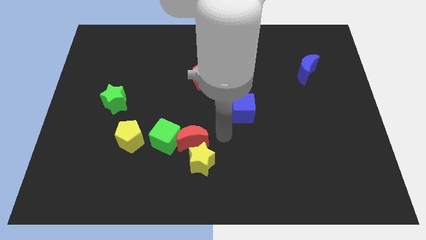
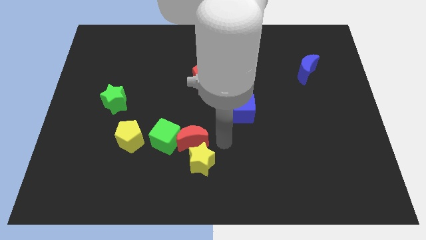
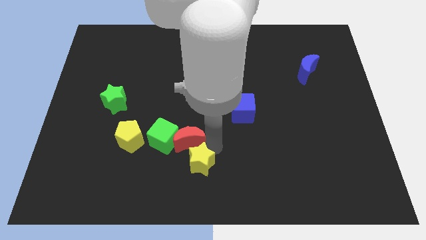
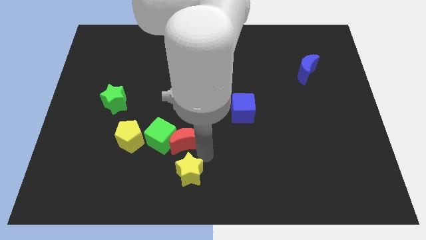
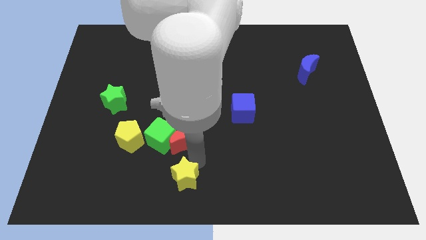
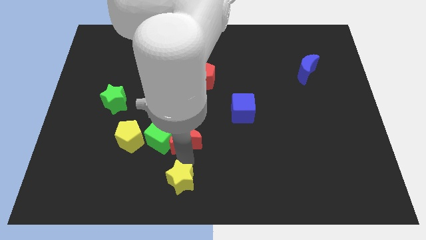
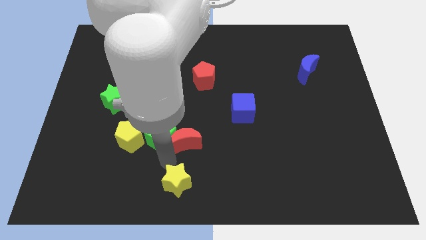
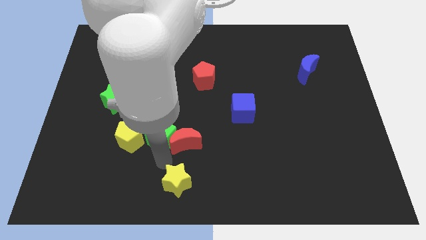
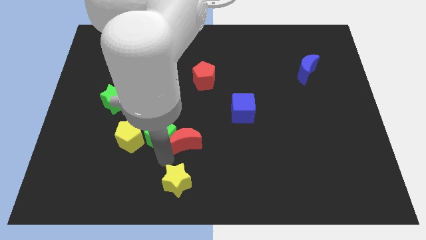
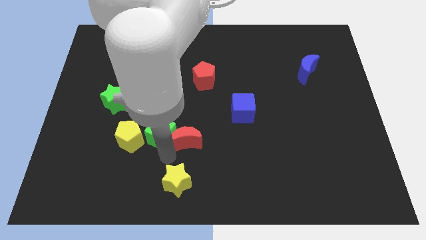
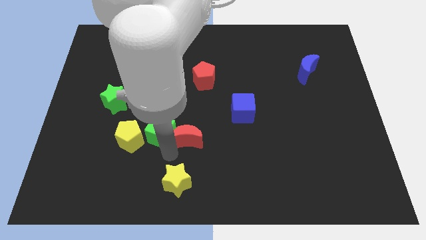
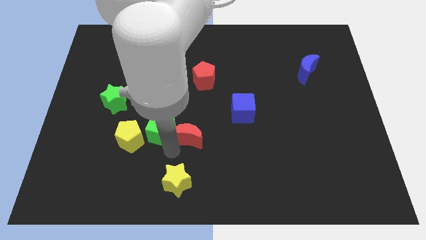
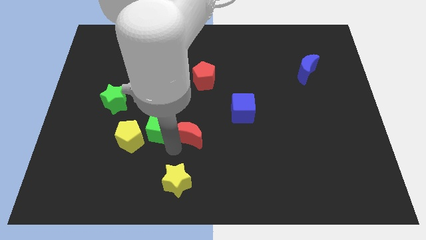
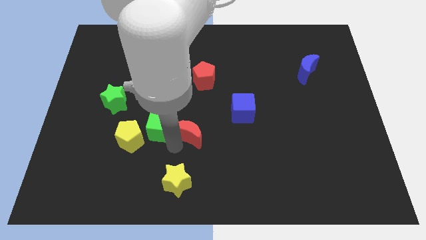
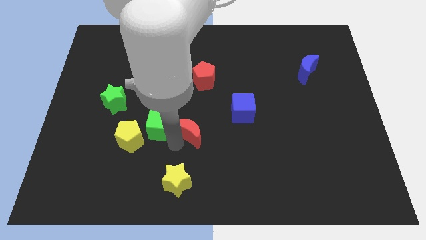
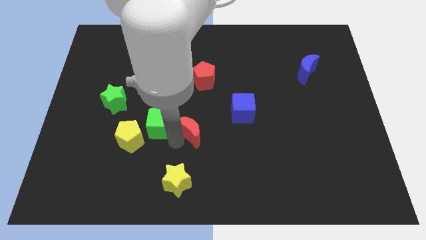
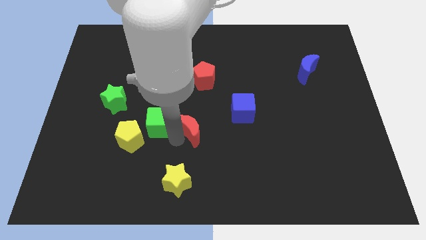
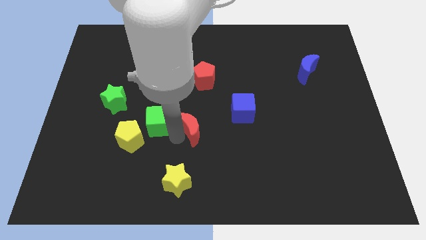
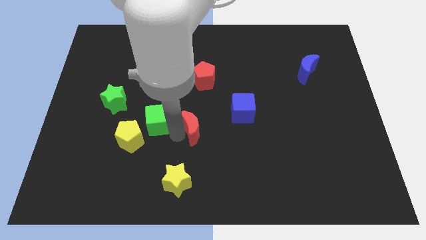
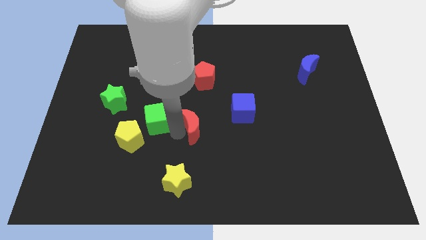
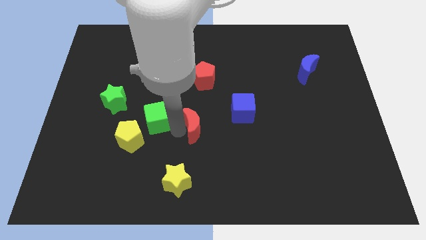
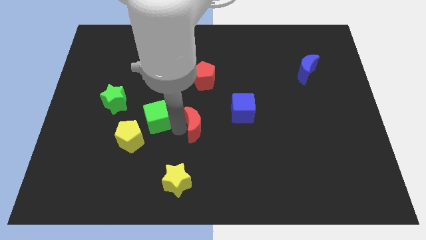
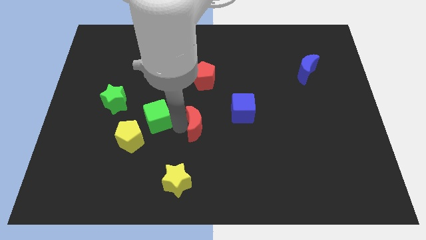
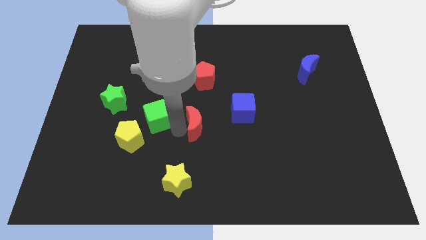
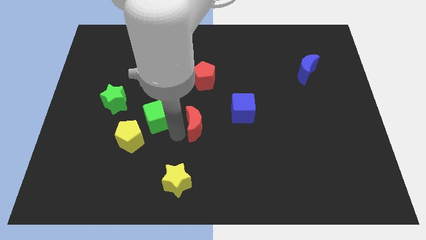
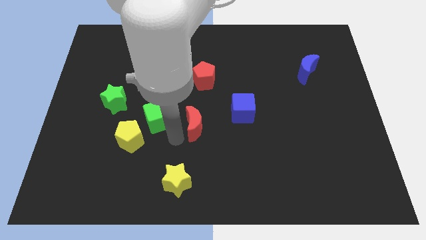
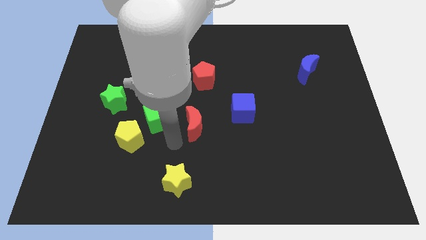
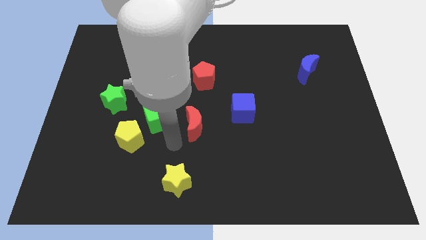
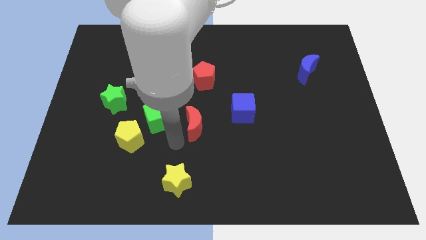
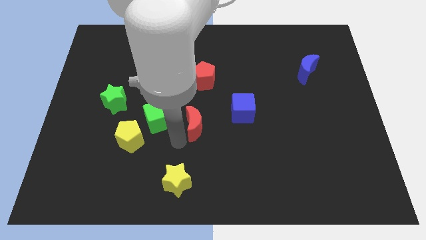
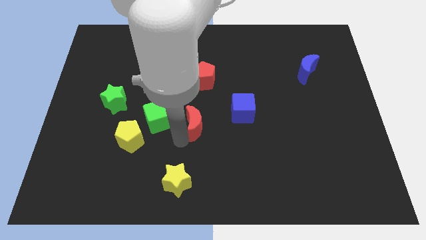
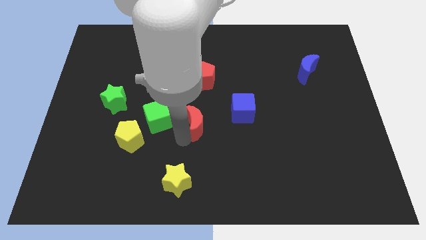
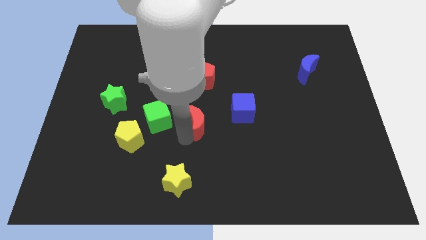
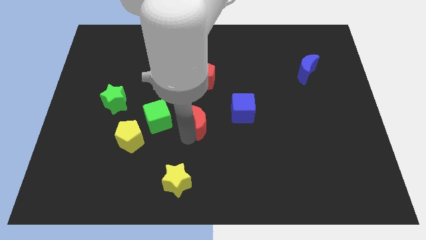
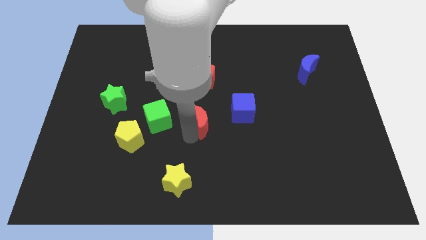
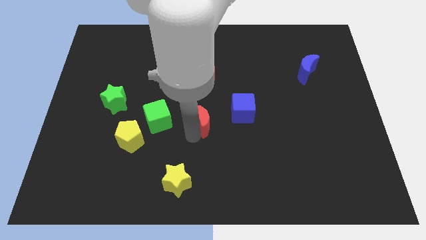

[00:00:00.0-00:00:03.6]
pull the red moon apart from the green cube and yellow star

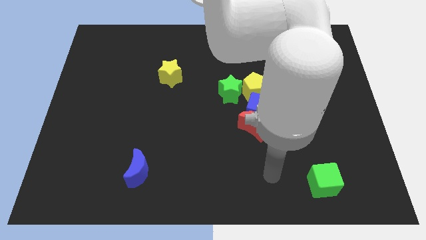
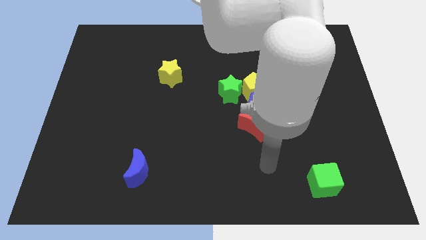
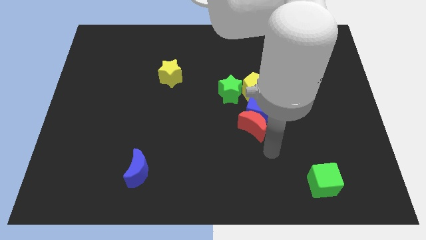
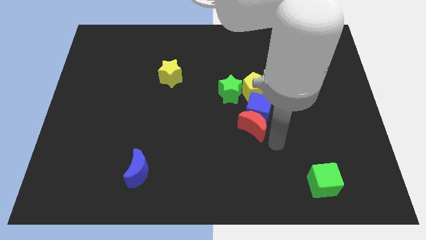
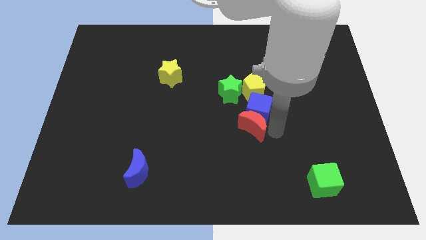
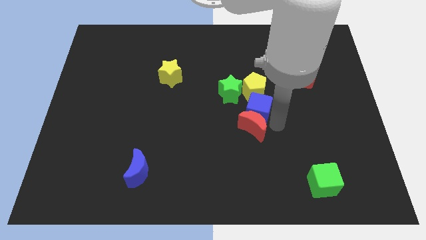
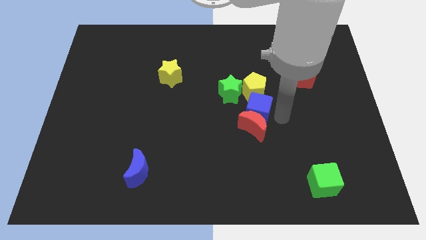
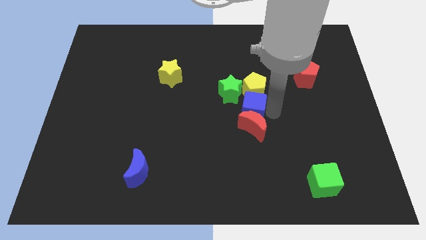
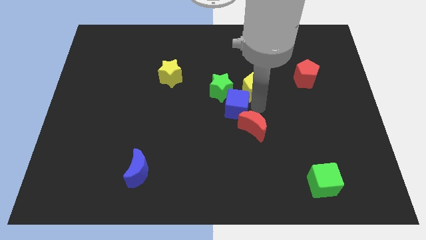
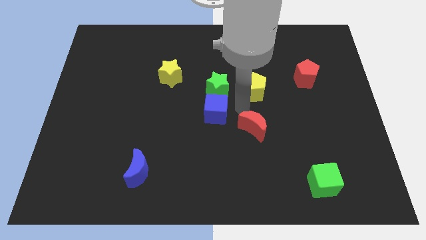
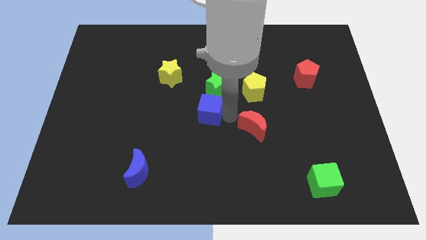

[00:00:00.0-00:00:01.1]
separate the red moon from the blue cube

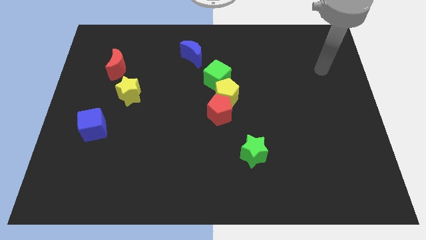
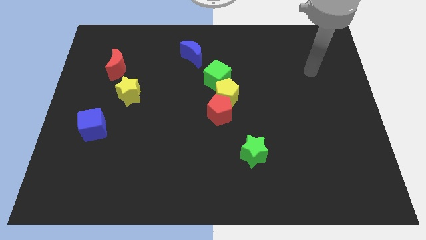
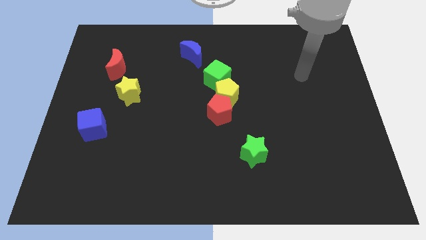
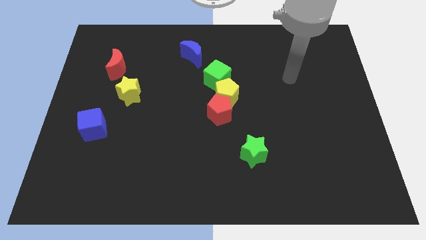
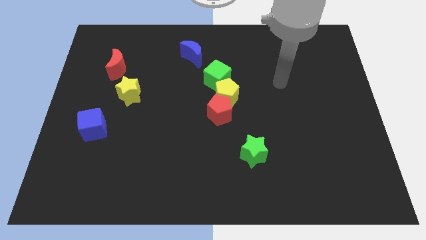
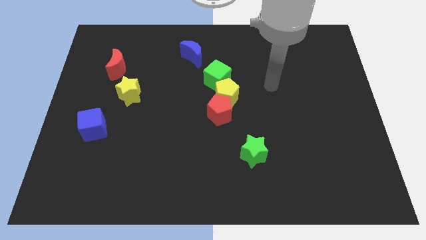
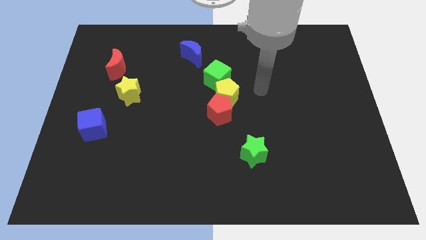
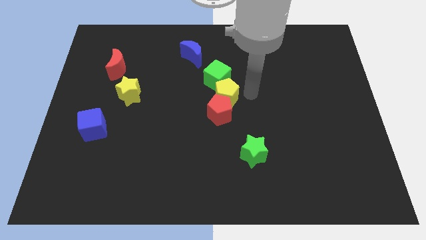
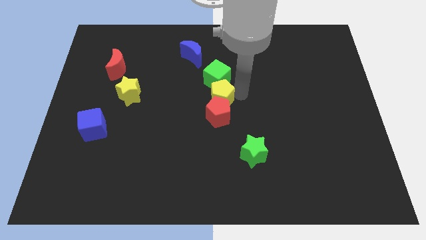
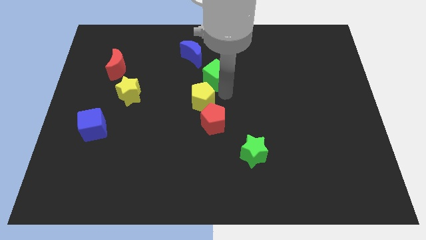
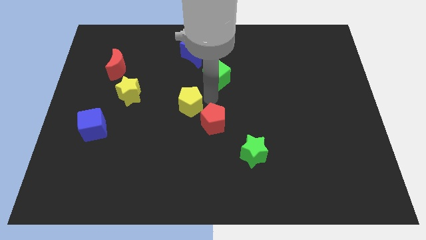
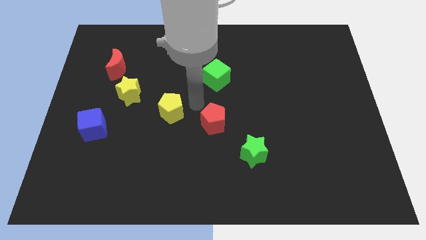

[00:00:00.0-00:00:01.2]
pull the red pentagon apart from the yellow pentagon

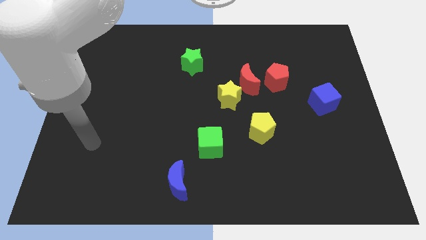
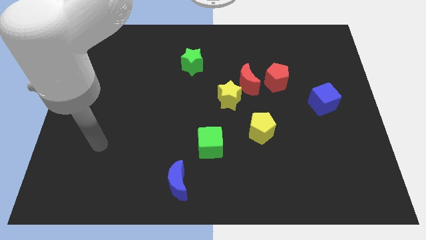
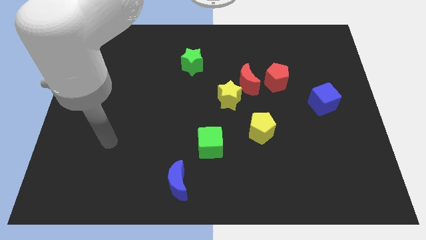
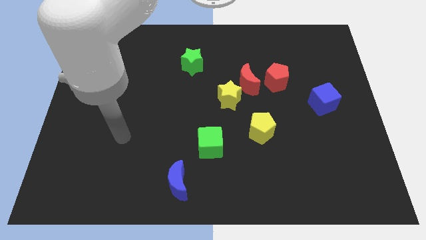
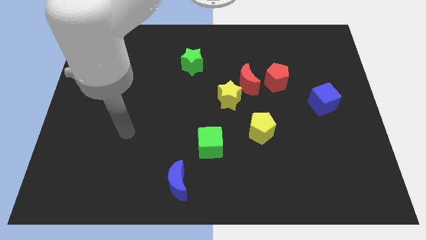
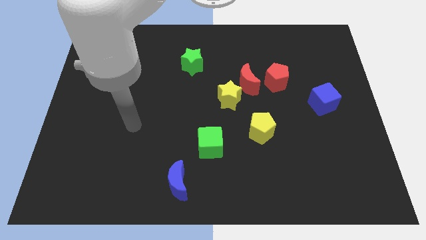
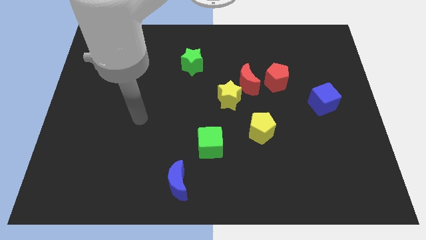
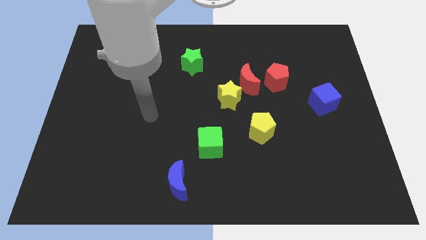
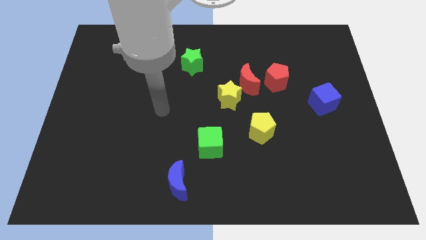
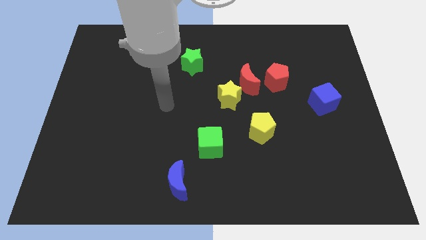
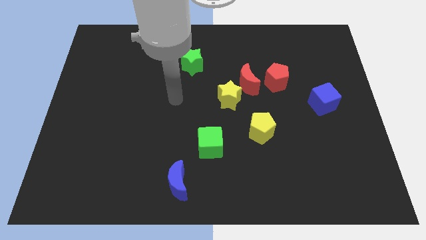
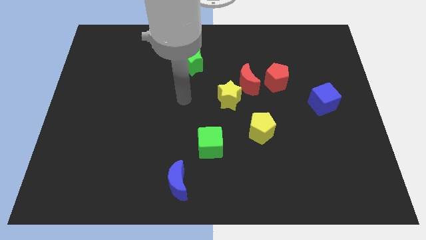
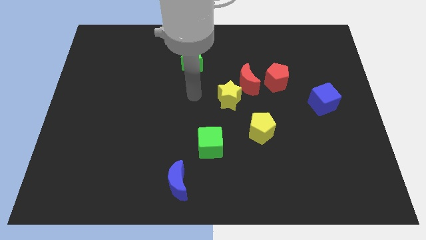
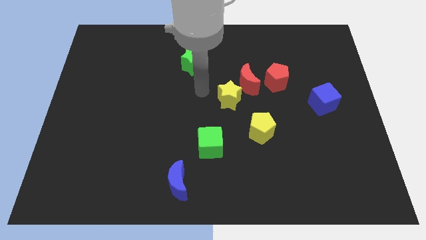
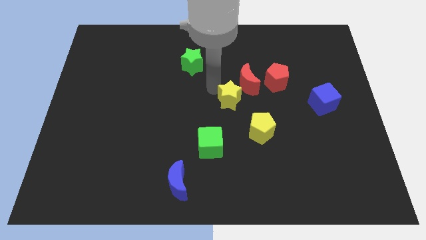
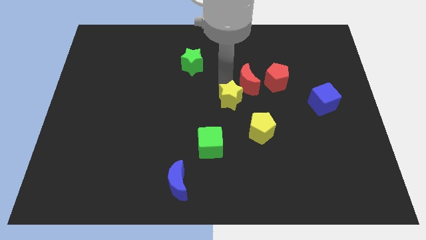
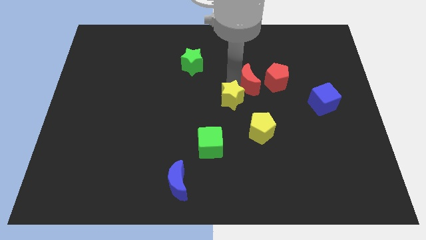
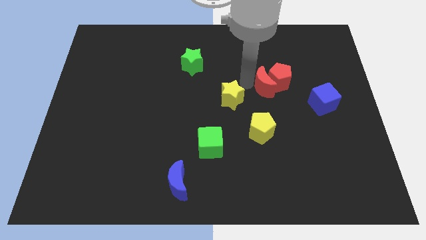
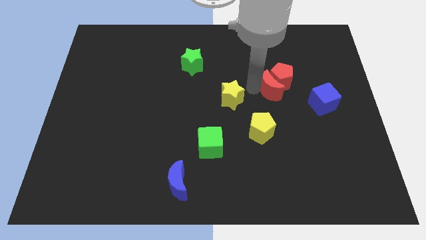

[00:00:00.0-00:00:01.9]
move the yellow star away from the red moon

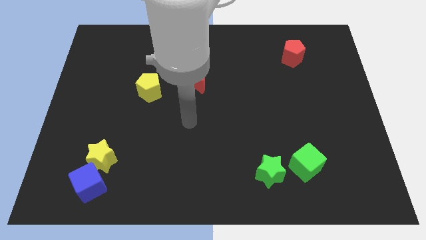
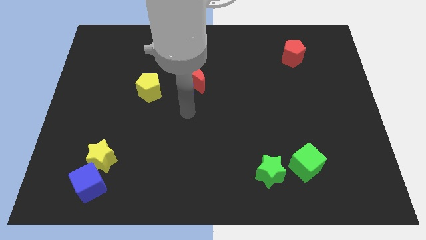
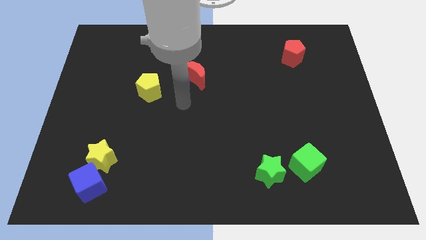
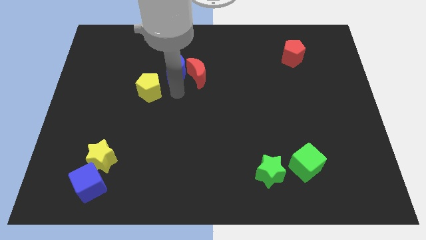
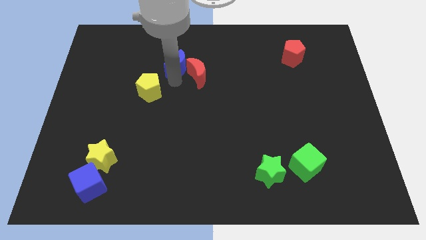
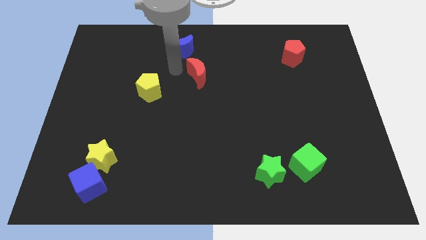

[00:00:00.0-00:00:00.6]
pull the red moon apart from the blue moon

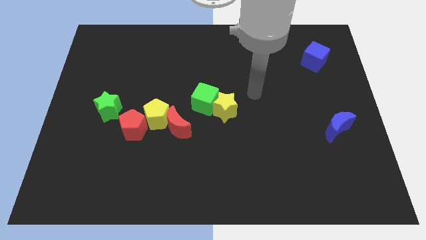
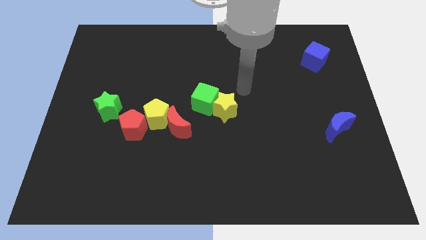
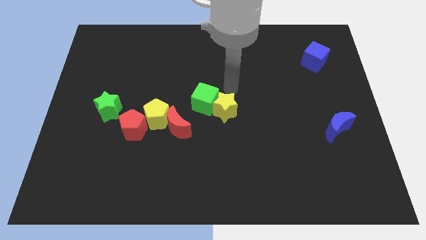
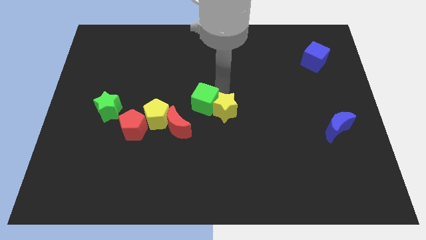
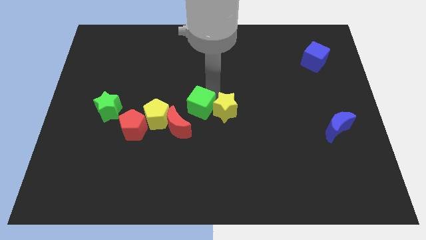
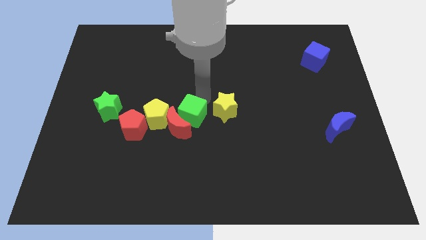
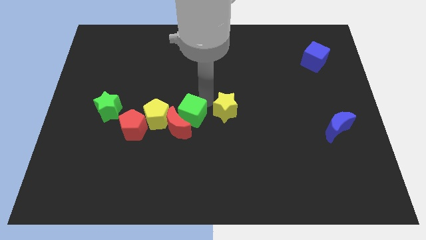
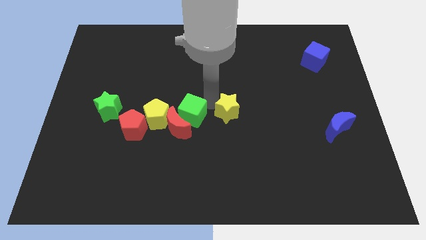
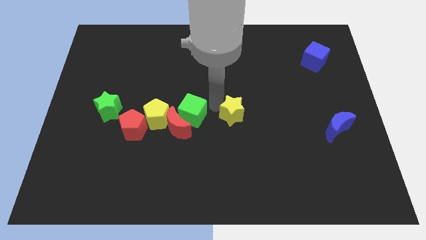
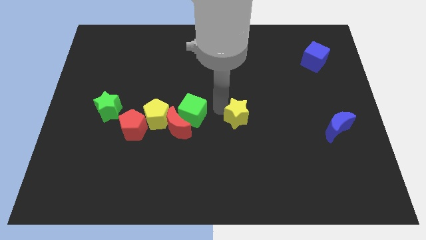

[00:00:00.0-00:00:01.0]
pull the yellow star apart from the green cube
